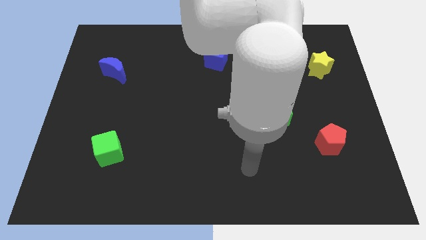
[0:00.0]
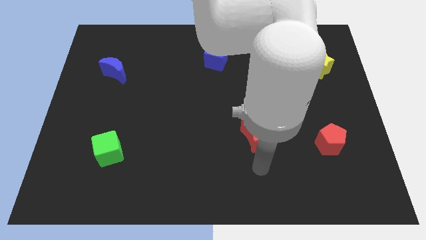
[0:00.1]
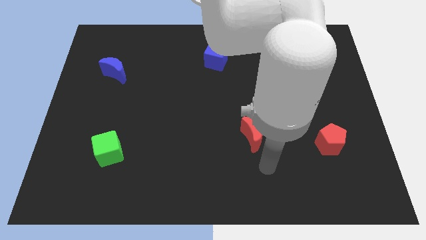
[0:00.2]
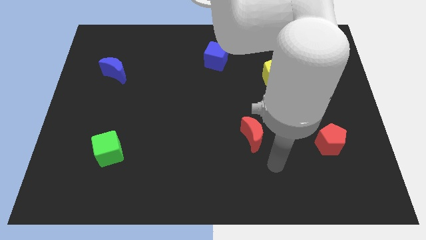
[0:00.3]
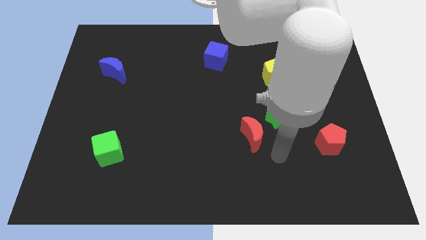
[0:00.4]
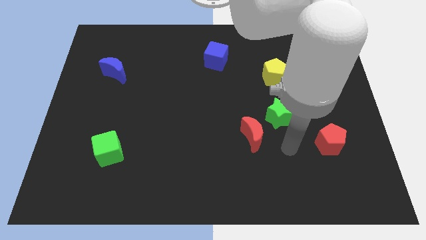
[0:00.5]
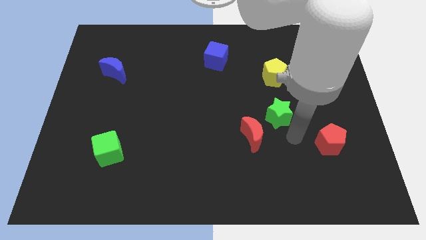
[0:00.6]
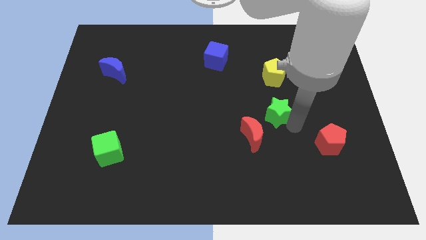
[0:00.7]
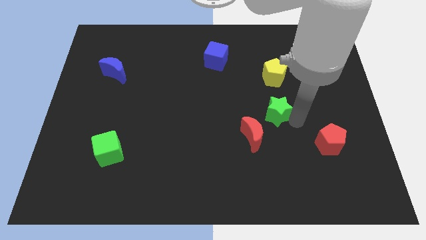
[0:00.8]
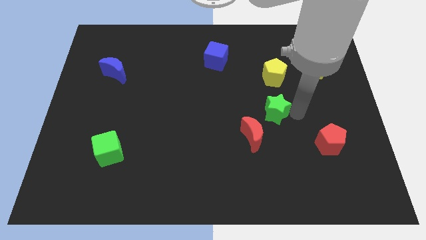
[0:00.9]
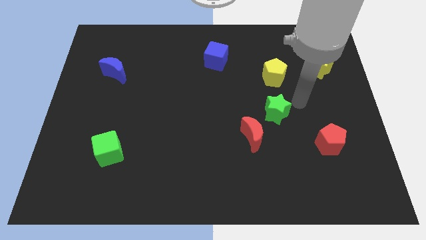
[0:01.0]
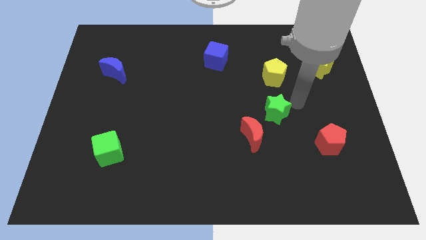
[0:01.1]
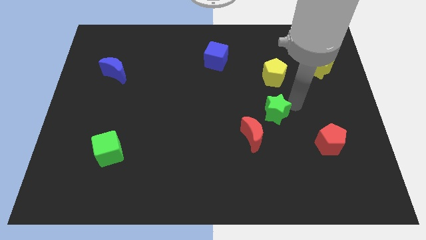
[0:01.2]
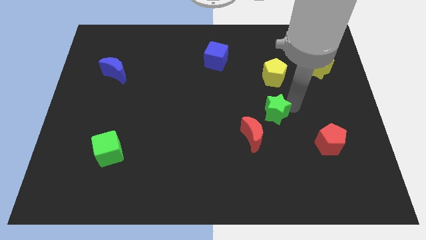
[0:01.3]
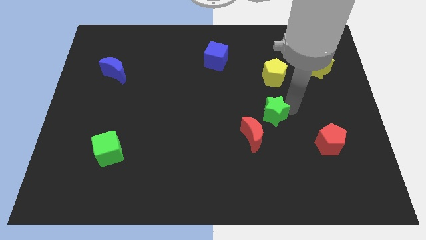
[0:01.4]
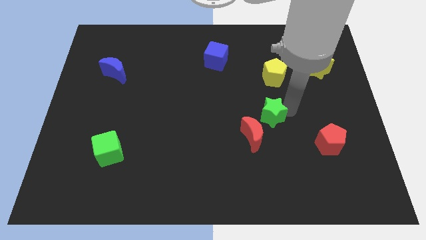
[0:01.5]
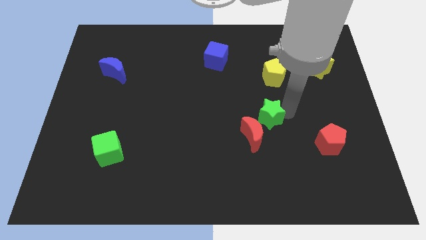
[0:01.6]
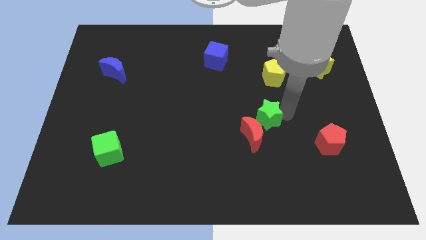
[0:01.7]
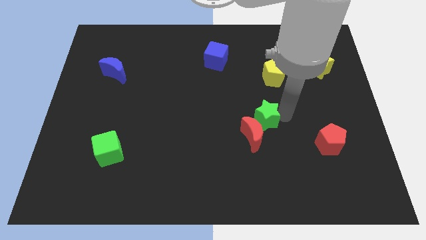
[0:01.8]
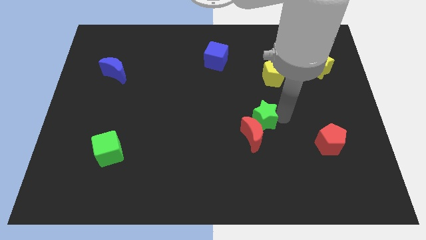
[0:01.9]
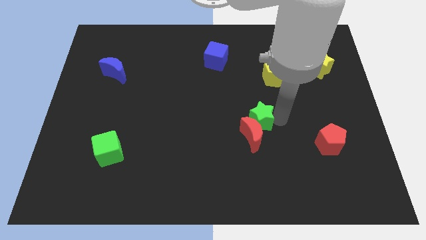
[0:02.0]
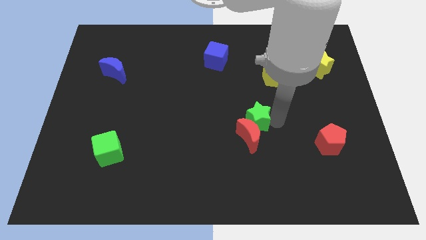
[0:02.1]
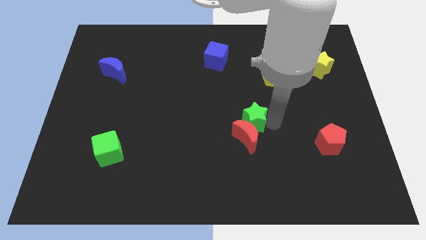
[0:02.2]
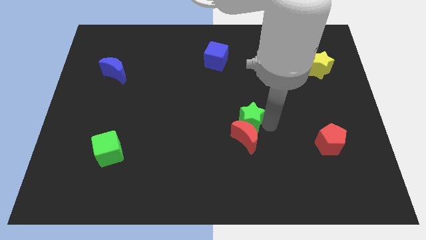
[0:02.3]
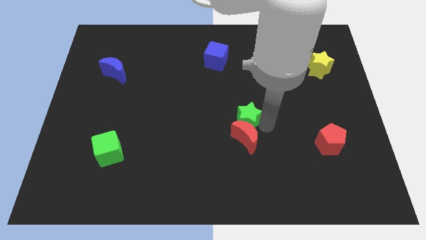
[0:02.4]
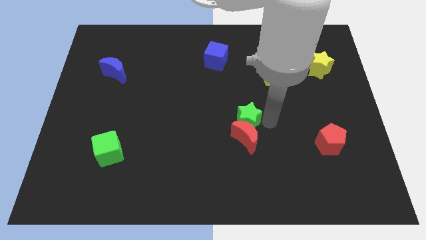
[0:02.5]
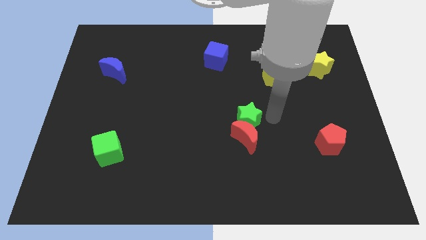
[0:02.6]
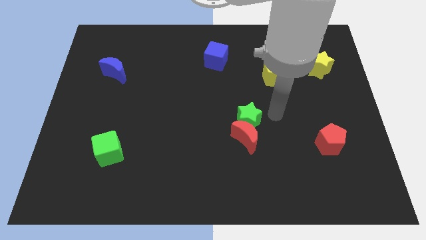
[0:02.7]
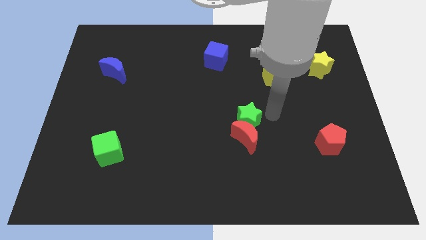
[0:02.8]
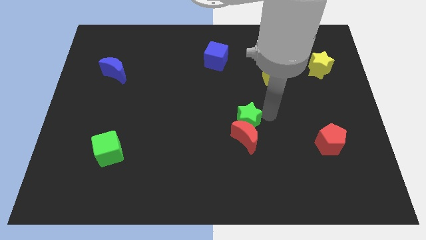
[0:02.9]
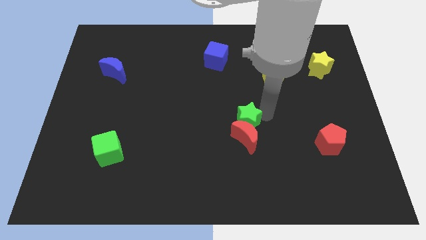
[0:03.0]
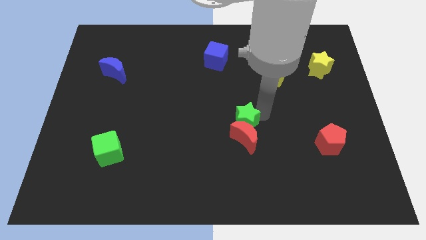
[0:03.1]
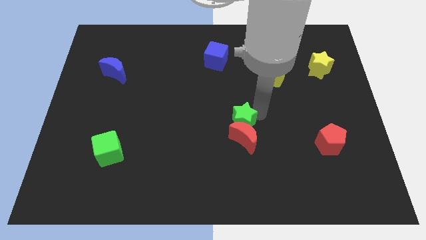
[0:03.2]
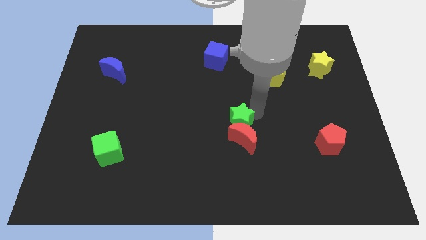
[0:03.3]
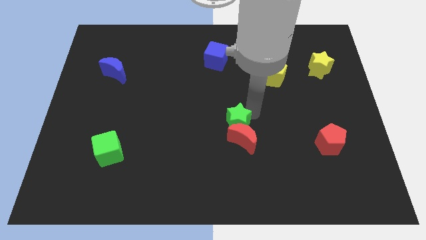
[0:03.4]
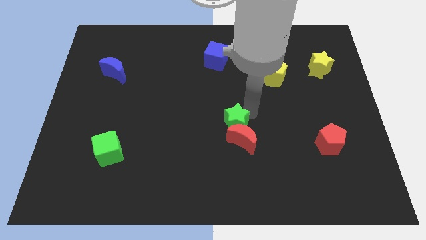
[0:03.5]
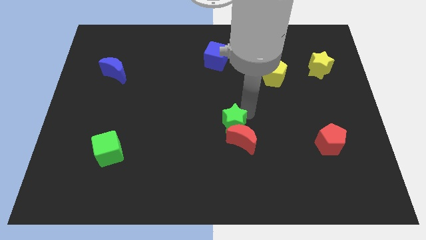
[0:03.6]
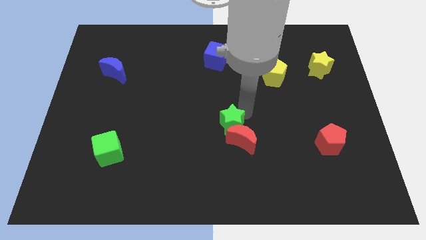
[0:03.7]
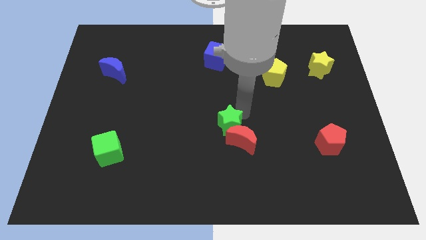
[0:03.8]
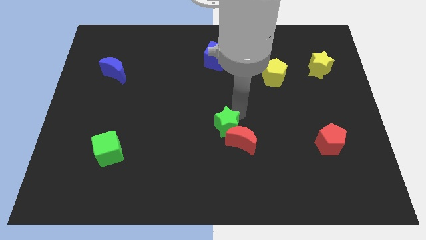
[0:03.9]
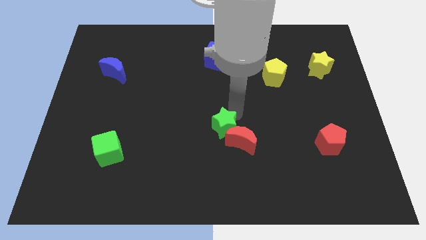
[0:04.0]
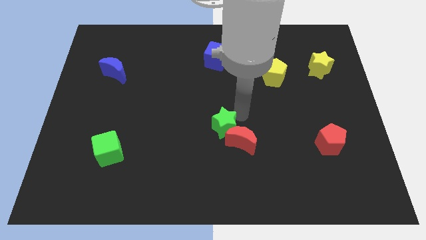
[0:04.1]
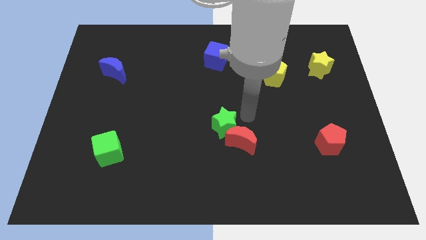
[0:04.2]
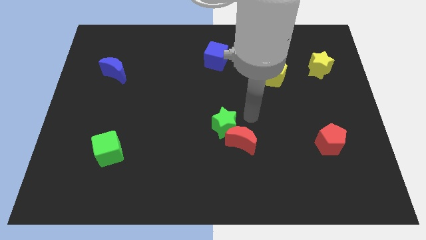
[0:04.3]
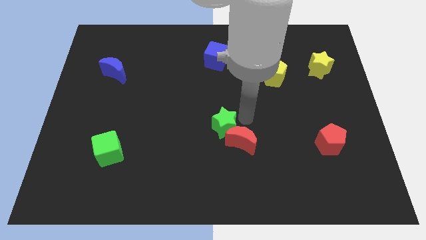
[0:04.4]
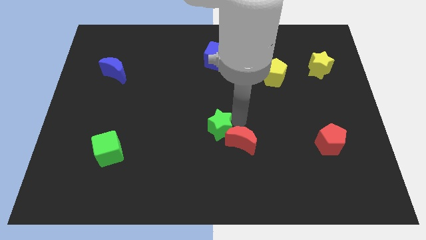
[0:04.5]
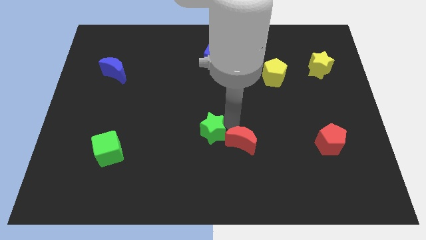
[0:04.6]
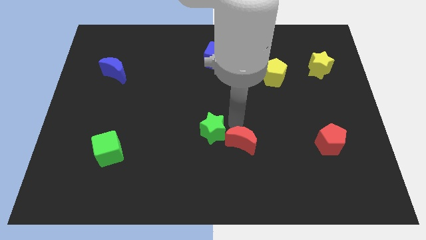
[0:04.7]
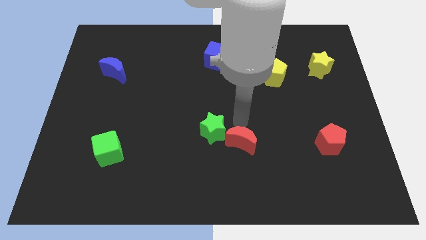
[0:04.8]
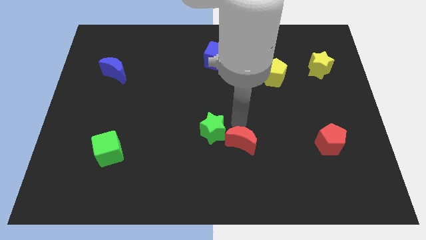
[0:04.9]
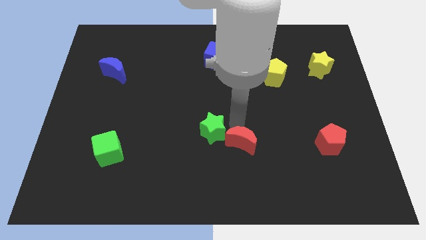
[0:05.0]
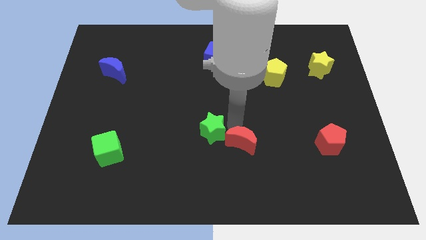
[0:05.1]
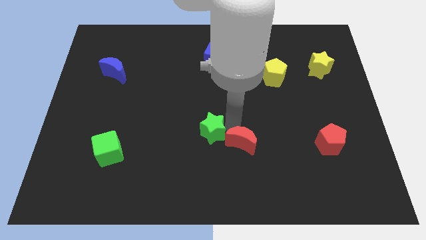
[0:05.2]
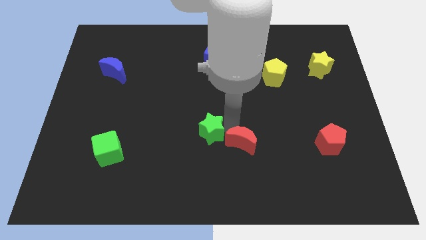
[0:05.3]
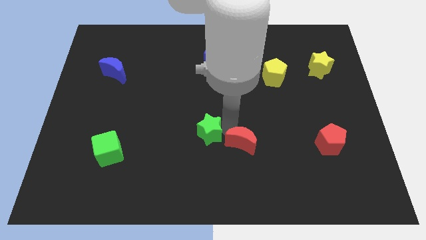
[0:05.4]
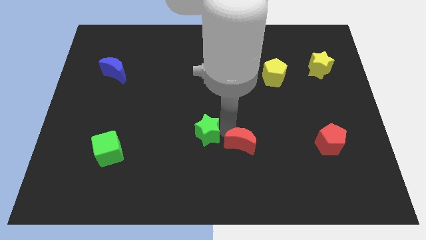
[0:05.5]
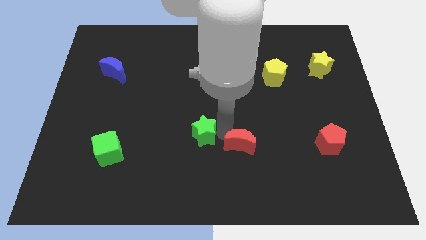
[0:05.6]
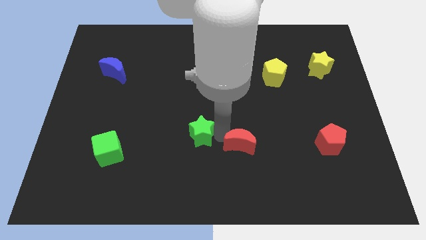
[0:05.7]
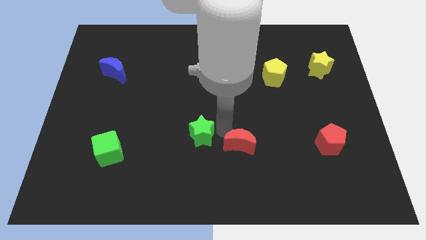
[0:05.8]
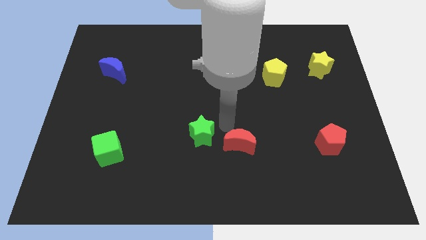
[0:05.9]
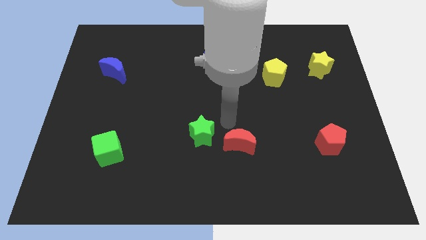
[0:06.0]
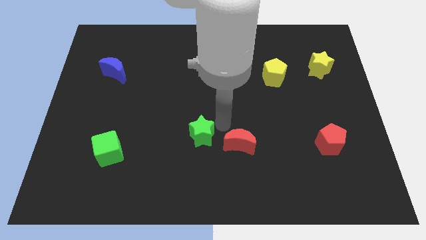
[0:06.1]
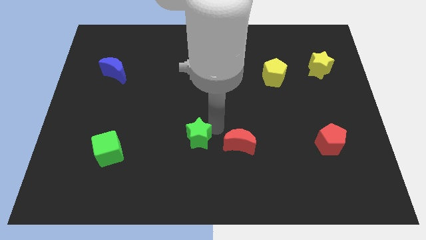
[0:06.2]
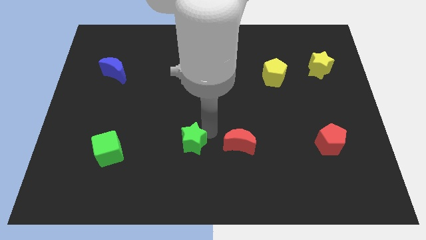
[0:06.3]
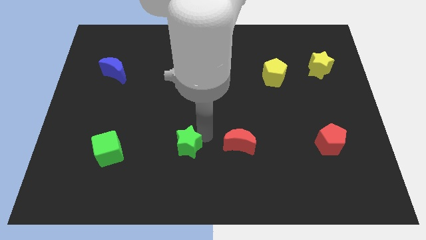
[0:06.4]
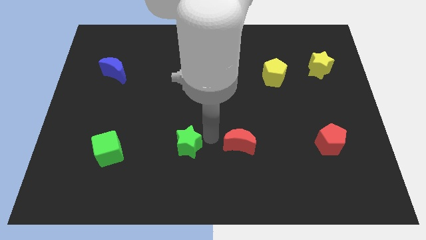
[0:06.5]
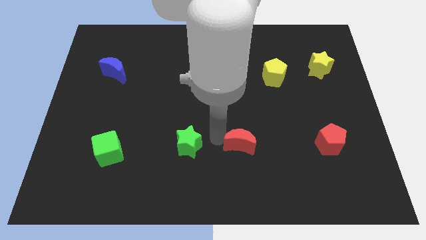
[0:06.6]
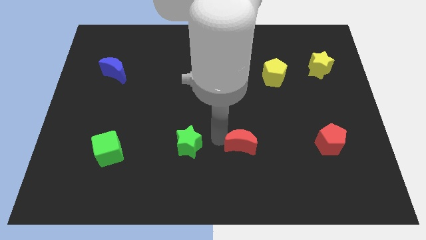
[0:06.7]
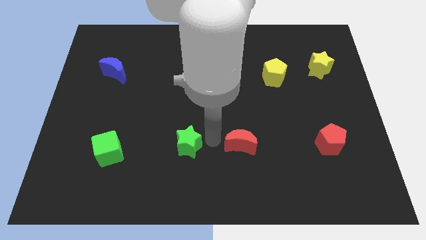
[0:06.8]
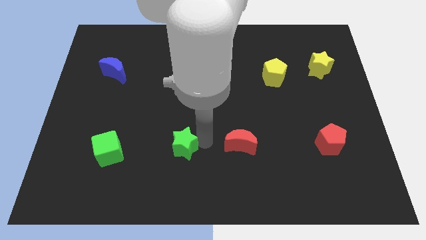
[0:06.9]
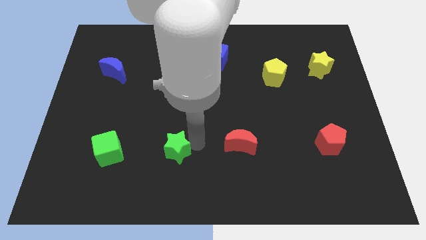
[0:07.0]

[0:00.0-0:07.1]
push the green star to the right of the green cube
